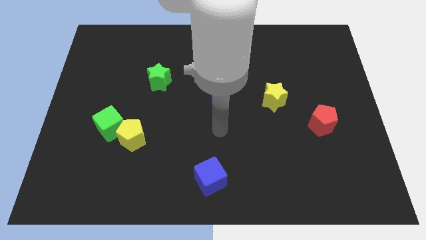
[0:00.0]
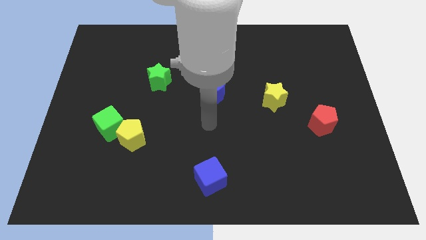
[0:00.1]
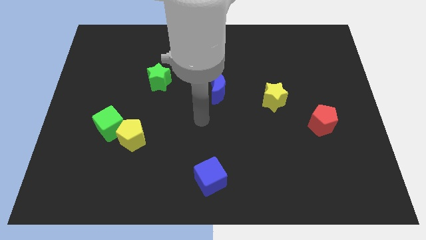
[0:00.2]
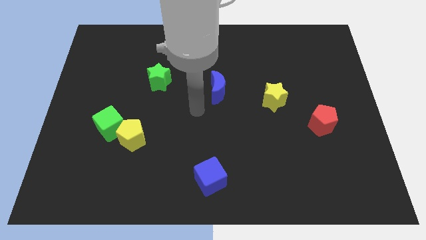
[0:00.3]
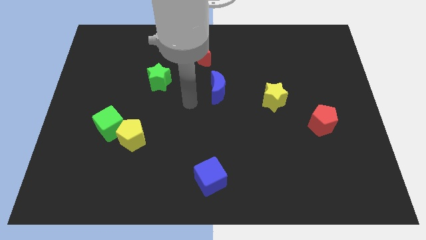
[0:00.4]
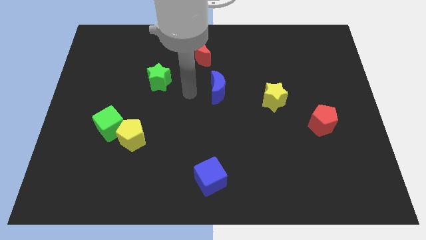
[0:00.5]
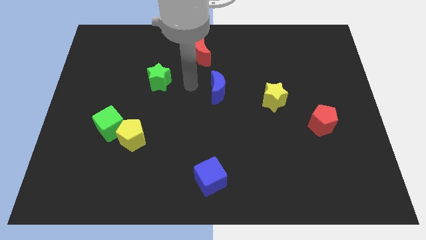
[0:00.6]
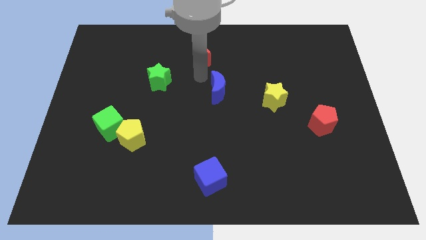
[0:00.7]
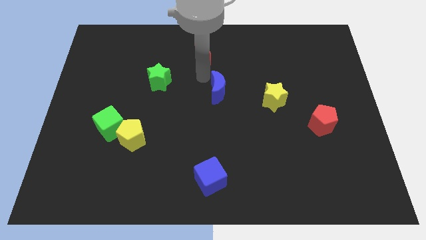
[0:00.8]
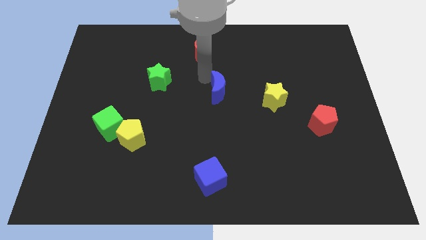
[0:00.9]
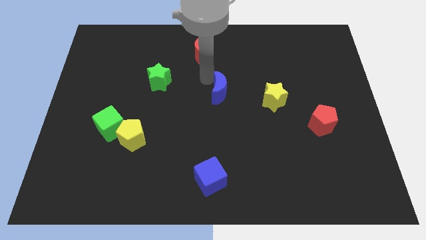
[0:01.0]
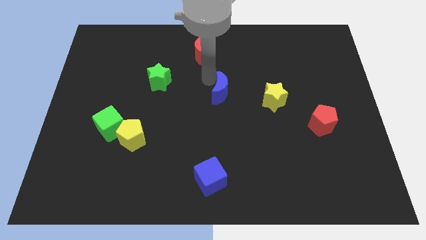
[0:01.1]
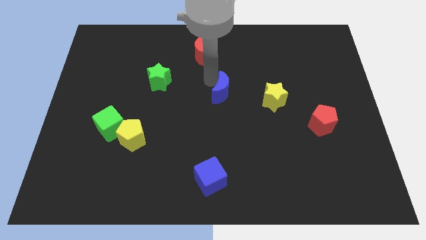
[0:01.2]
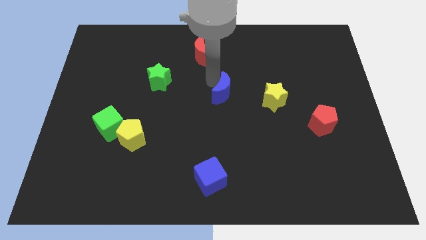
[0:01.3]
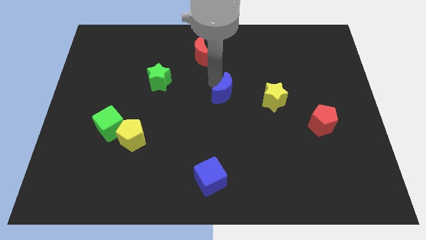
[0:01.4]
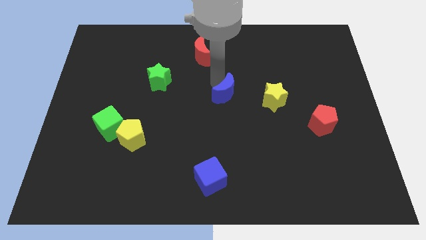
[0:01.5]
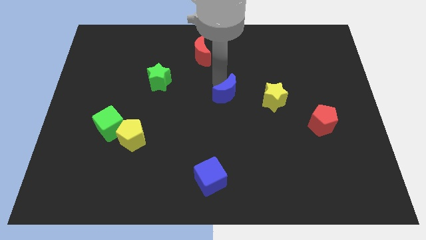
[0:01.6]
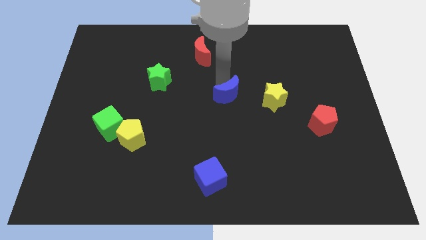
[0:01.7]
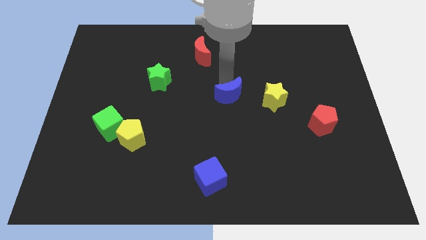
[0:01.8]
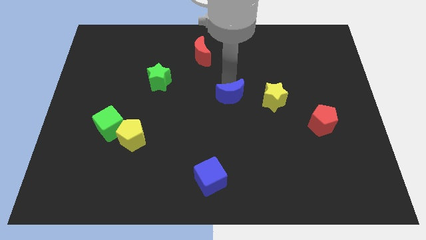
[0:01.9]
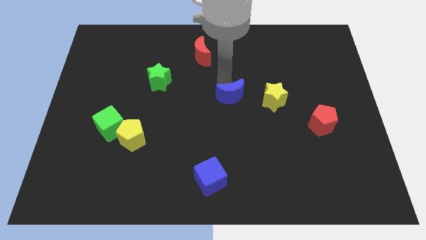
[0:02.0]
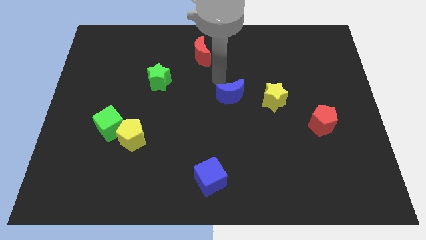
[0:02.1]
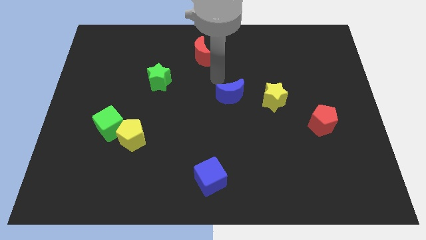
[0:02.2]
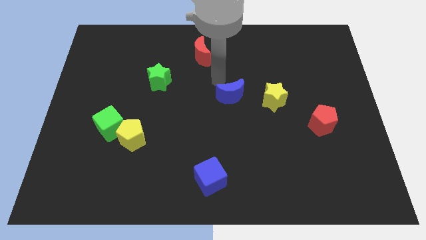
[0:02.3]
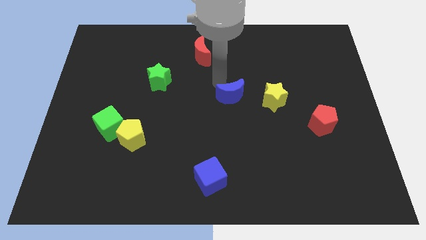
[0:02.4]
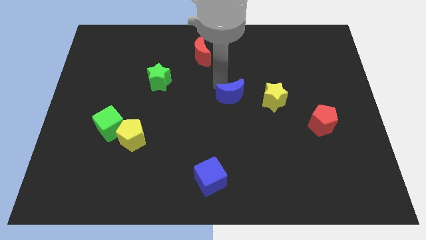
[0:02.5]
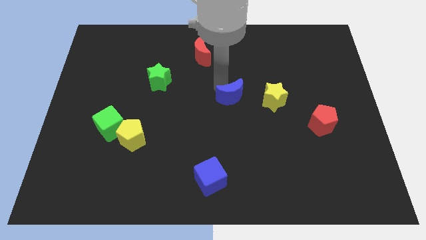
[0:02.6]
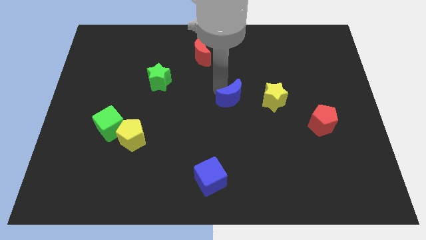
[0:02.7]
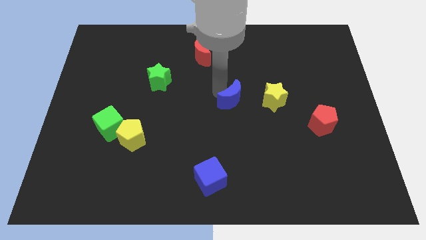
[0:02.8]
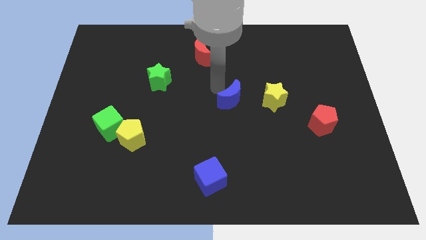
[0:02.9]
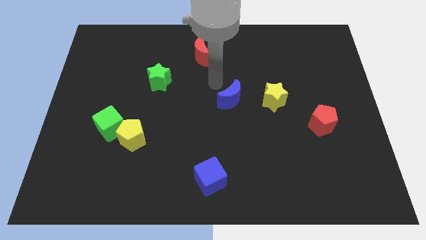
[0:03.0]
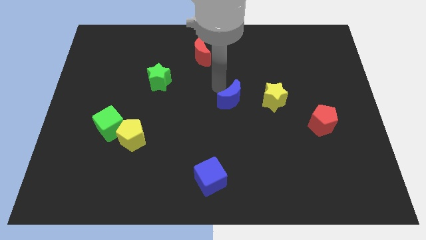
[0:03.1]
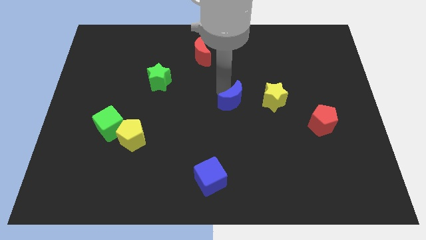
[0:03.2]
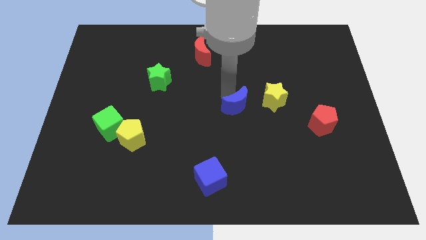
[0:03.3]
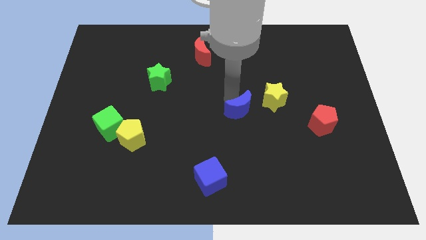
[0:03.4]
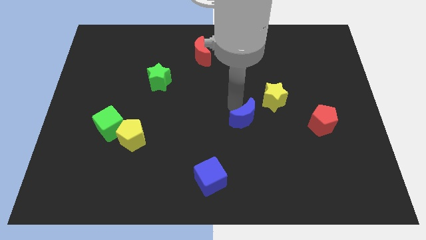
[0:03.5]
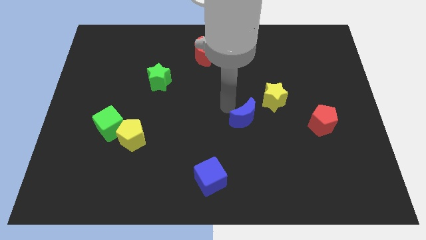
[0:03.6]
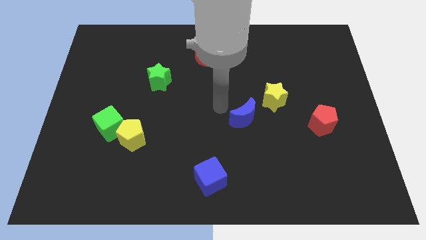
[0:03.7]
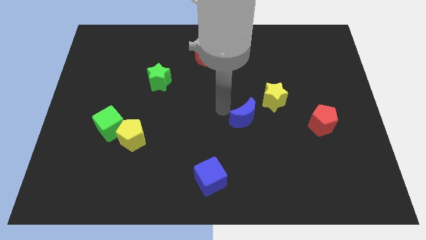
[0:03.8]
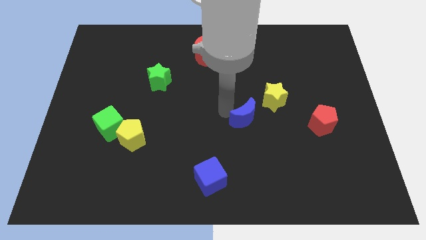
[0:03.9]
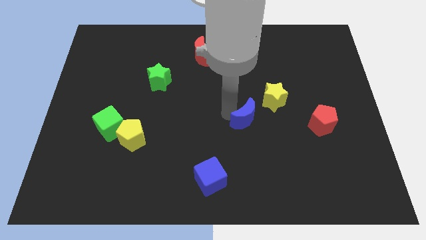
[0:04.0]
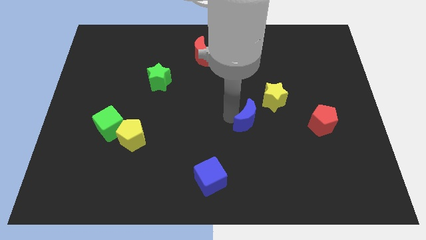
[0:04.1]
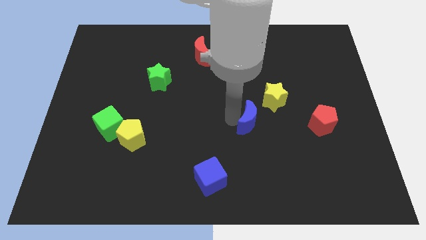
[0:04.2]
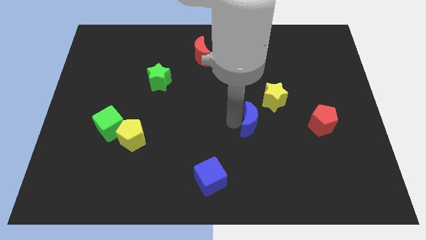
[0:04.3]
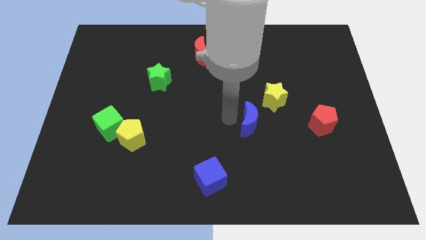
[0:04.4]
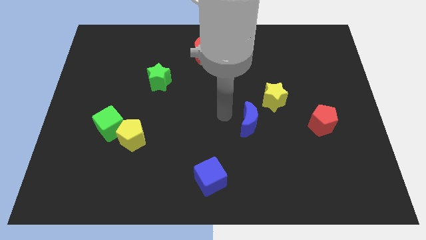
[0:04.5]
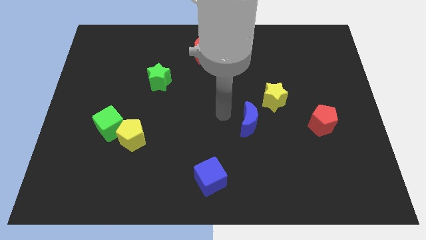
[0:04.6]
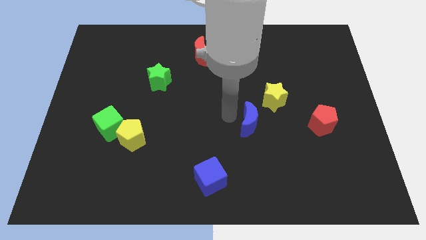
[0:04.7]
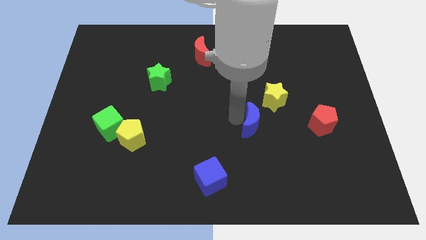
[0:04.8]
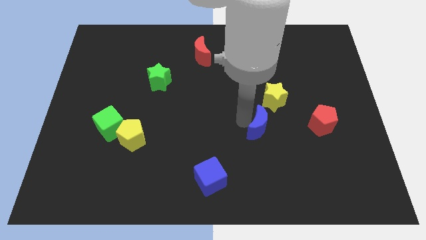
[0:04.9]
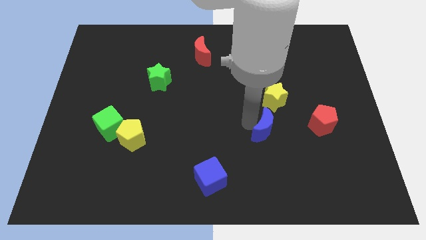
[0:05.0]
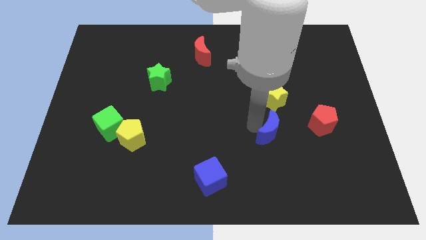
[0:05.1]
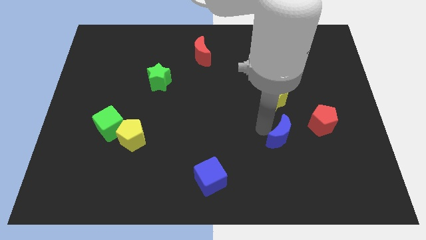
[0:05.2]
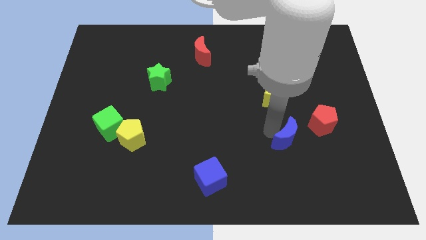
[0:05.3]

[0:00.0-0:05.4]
push the blue moon down and to the right

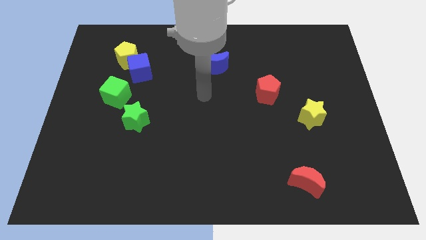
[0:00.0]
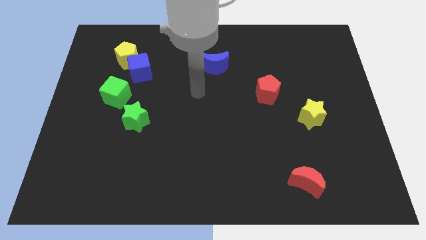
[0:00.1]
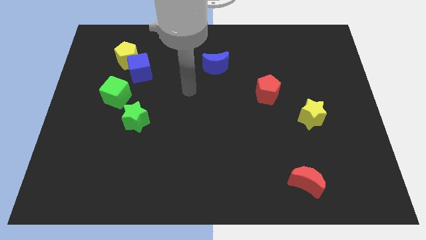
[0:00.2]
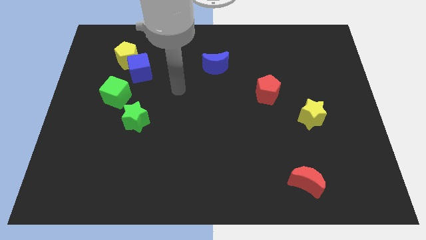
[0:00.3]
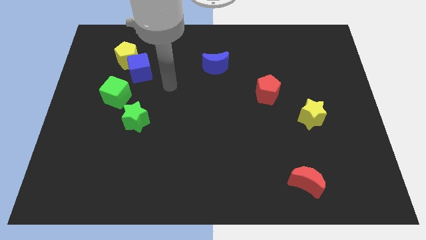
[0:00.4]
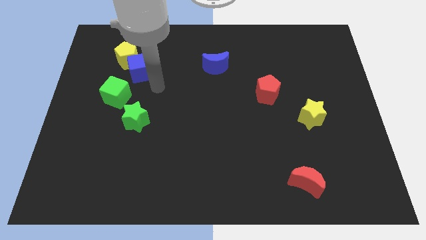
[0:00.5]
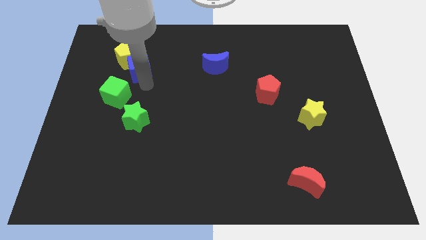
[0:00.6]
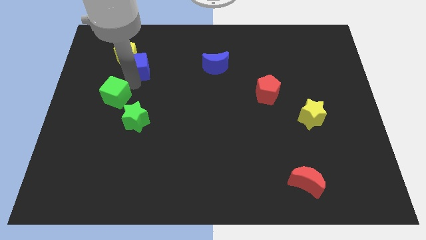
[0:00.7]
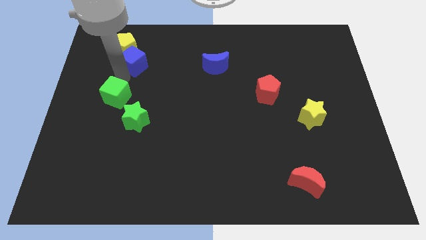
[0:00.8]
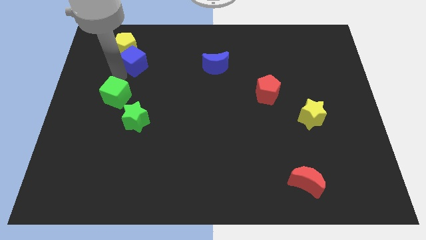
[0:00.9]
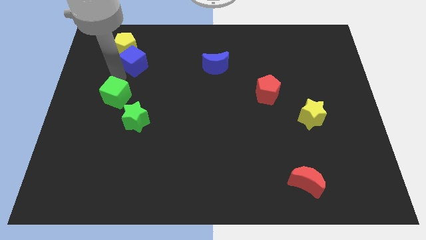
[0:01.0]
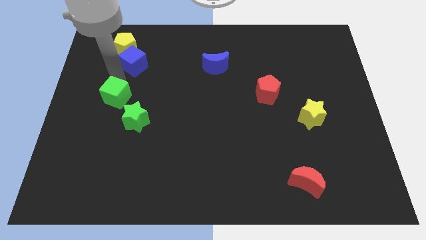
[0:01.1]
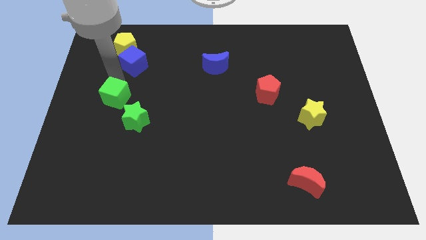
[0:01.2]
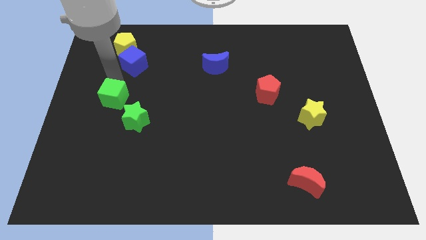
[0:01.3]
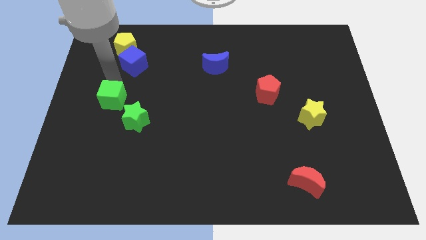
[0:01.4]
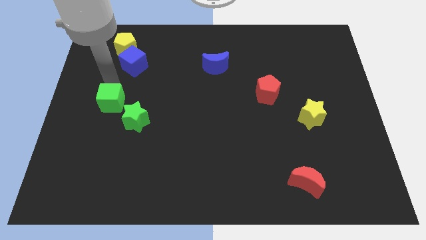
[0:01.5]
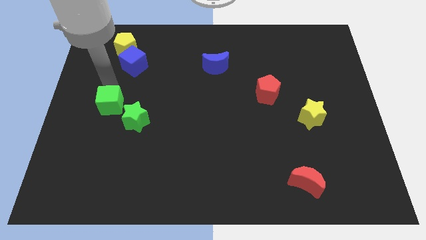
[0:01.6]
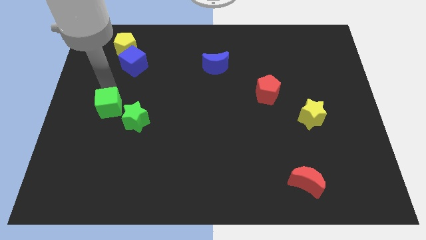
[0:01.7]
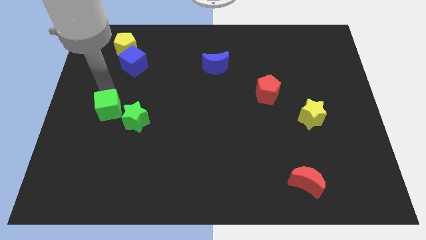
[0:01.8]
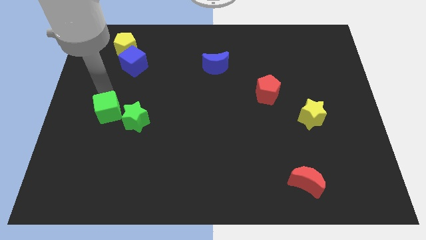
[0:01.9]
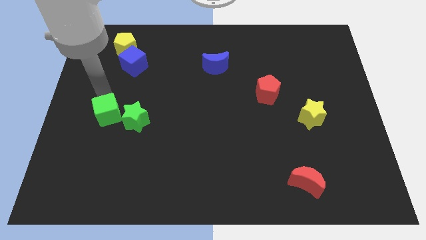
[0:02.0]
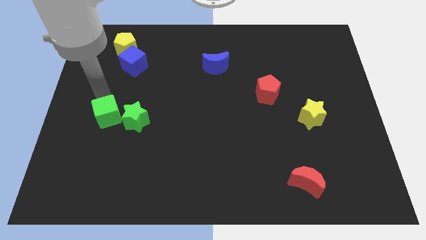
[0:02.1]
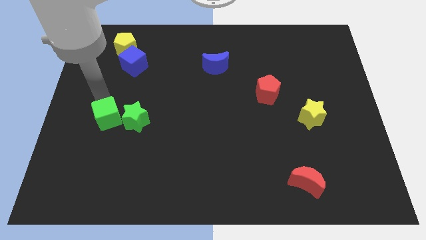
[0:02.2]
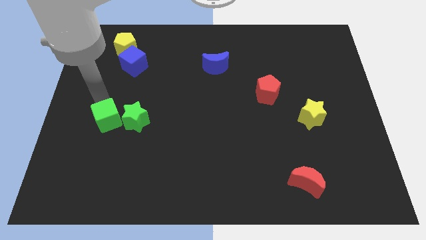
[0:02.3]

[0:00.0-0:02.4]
slightly push the green cube down
